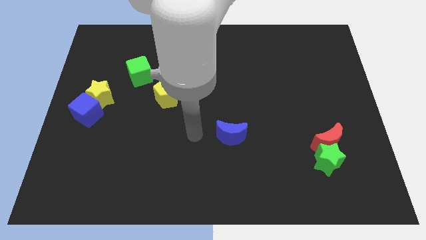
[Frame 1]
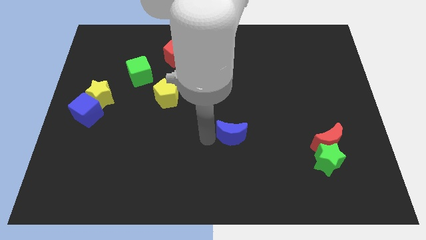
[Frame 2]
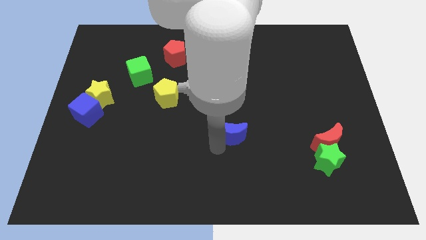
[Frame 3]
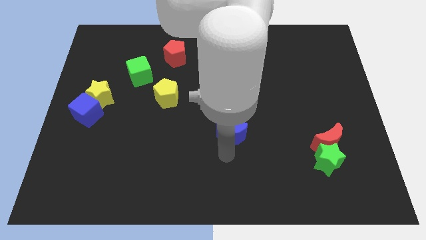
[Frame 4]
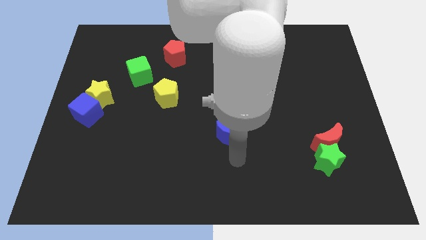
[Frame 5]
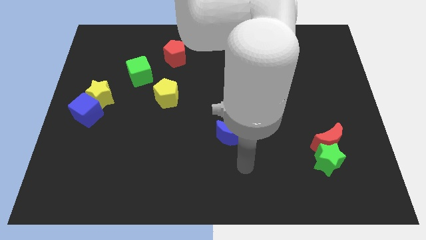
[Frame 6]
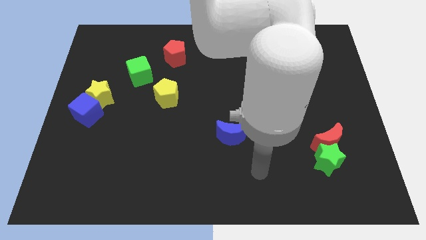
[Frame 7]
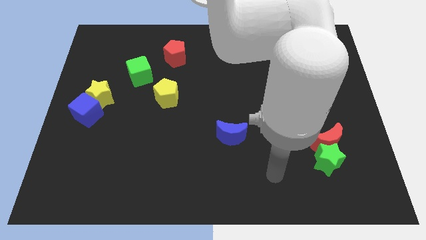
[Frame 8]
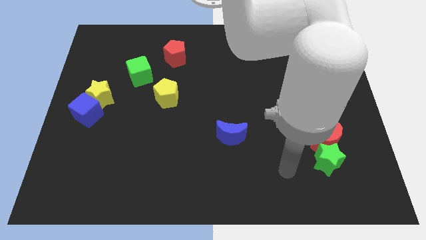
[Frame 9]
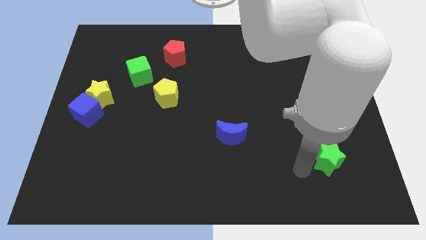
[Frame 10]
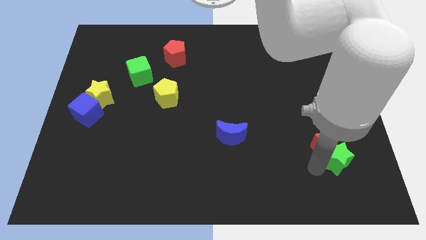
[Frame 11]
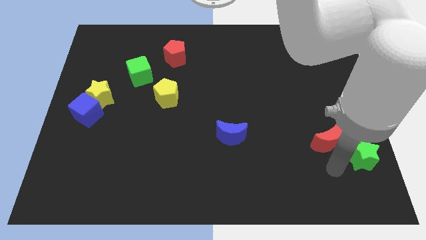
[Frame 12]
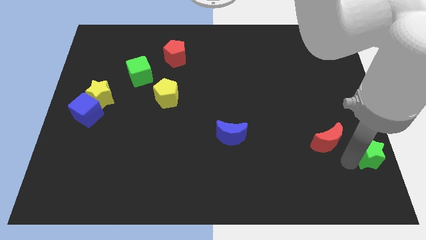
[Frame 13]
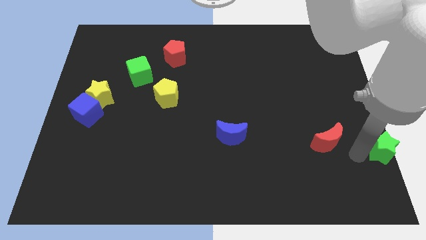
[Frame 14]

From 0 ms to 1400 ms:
move the red moon away from the green star

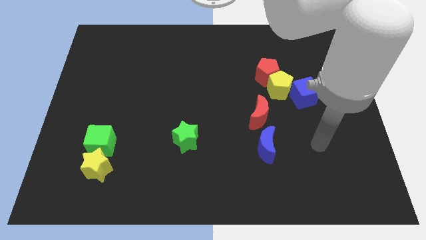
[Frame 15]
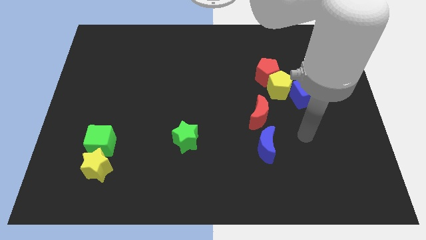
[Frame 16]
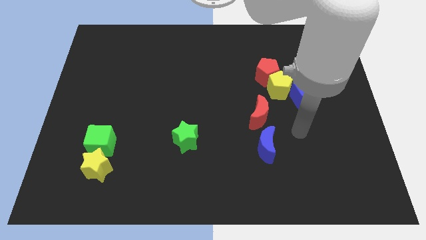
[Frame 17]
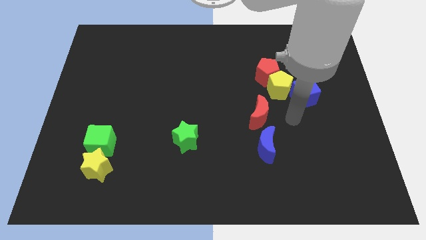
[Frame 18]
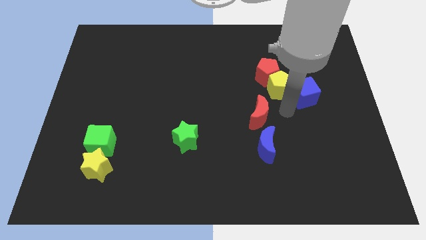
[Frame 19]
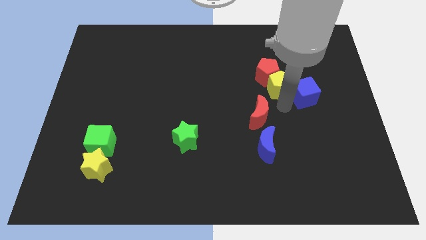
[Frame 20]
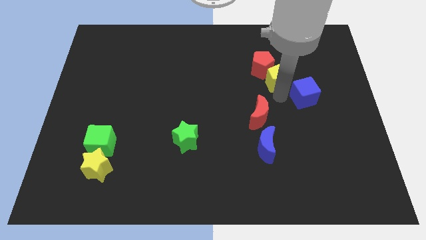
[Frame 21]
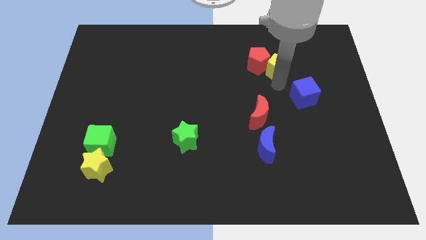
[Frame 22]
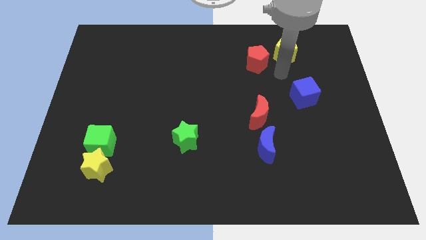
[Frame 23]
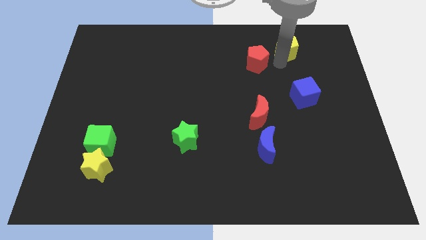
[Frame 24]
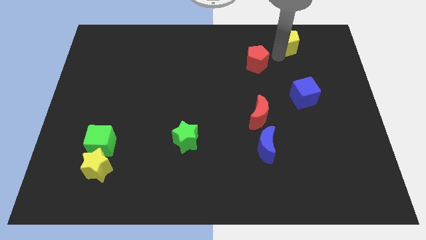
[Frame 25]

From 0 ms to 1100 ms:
pull the red pentagon apart from the yellow pentagon

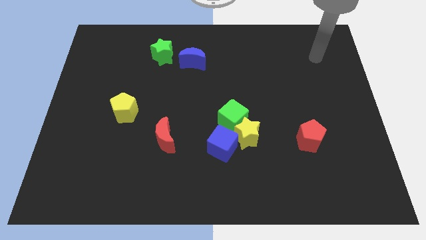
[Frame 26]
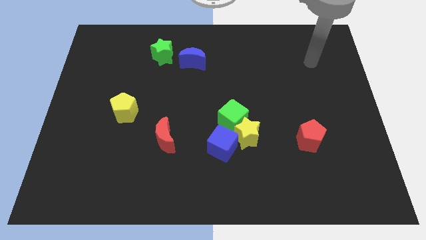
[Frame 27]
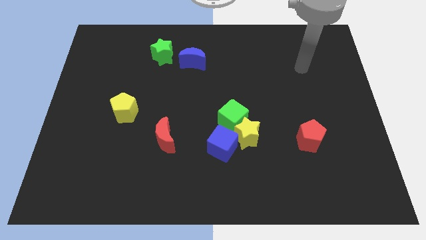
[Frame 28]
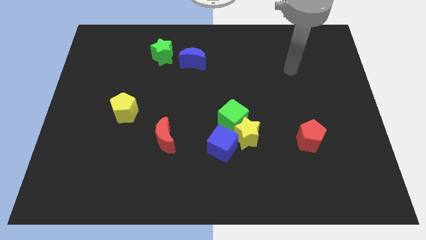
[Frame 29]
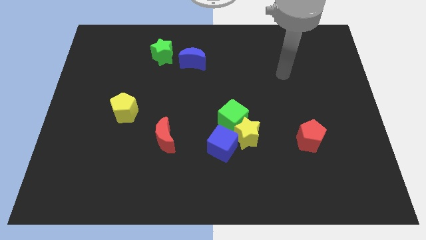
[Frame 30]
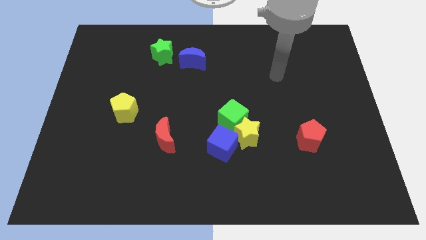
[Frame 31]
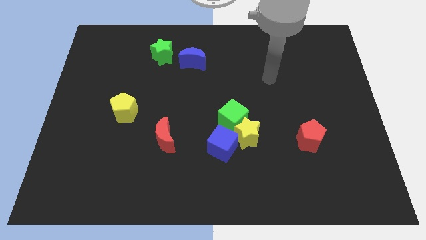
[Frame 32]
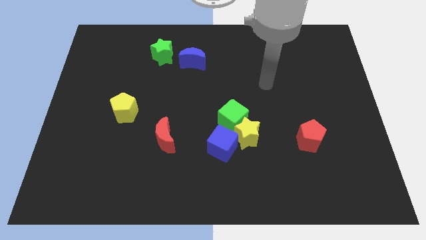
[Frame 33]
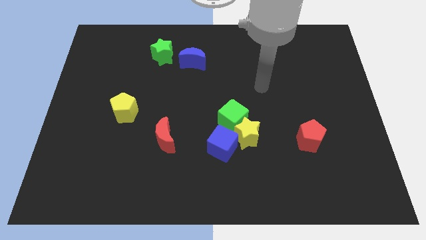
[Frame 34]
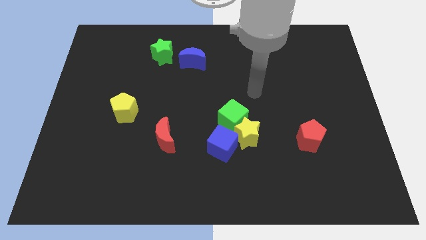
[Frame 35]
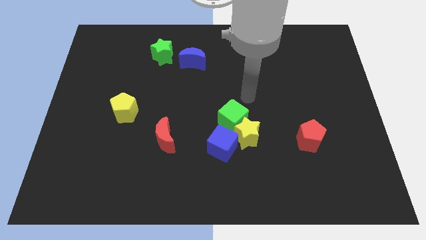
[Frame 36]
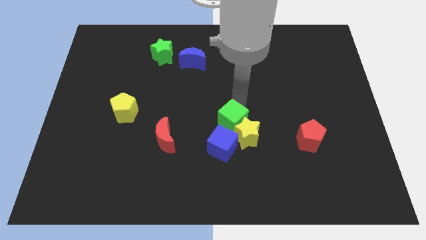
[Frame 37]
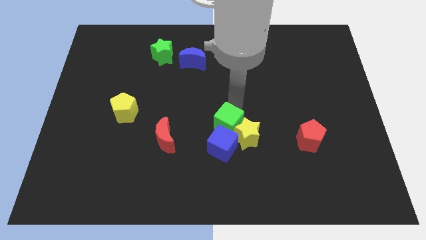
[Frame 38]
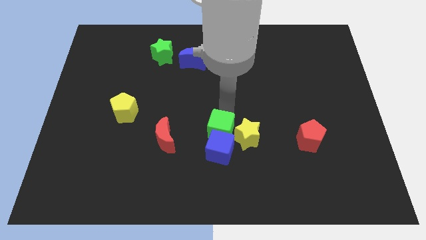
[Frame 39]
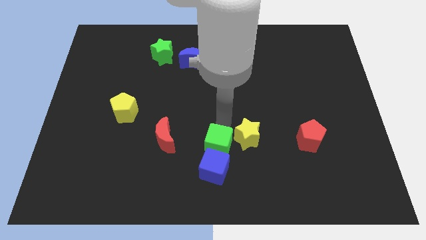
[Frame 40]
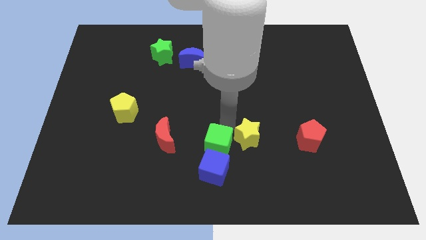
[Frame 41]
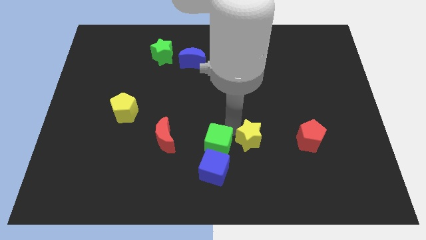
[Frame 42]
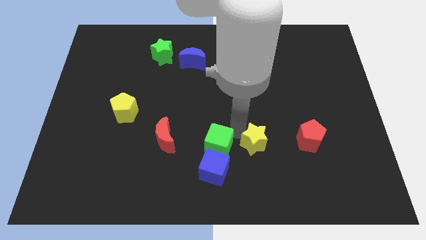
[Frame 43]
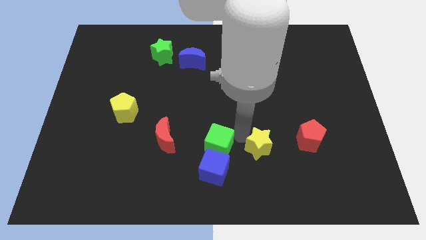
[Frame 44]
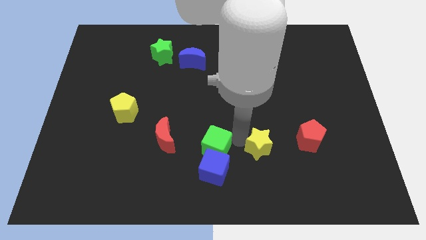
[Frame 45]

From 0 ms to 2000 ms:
move the yellow star away from the green cube and blue cube

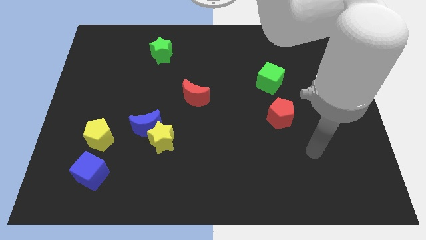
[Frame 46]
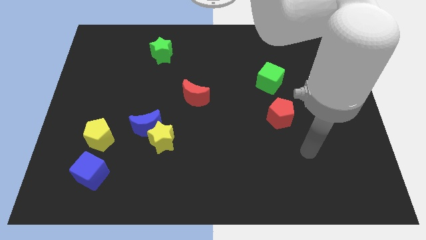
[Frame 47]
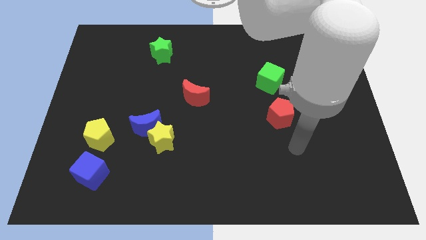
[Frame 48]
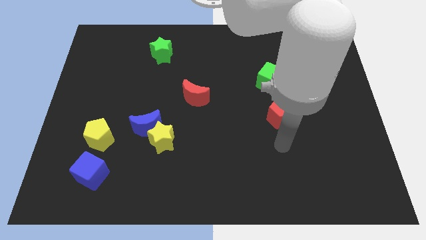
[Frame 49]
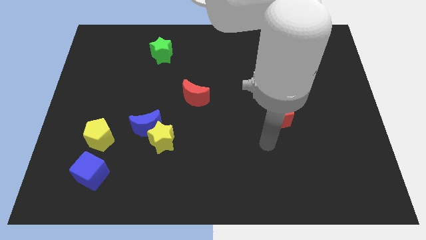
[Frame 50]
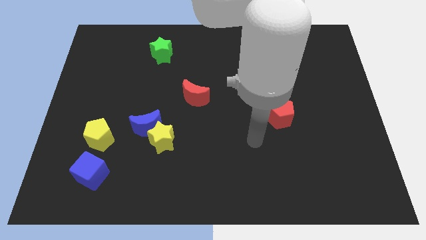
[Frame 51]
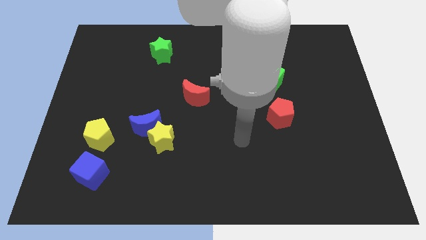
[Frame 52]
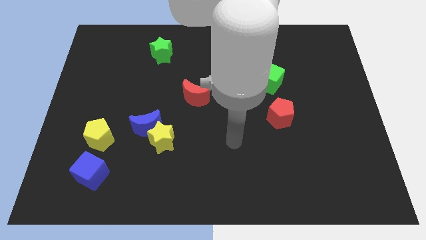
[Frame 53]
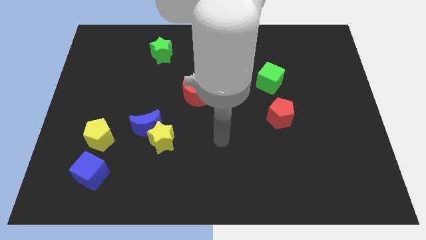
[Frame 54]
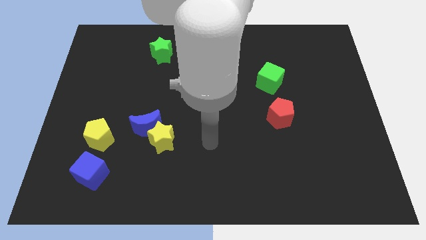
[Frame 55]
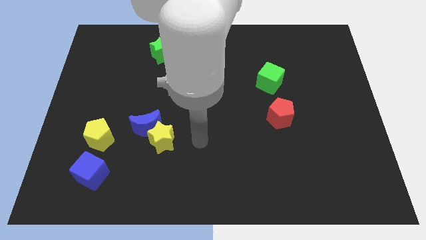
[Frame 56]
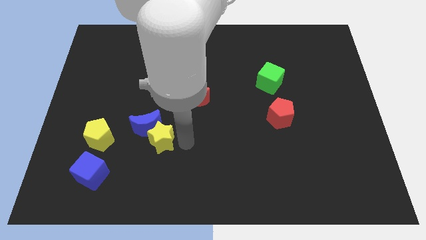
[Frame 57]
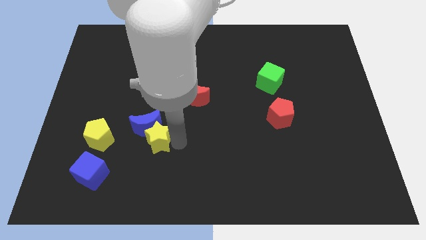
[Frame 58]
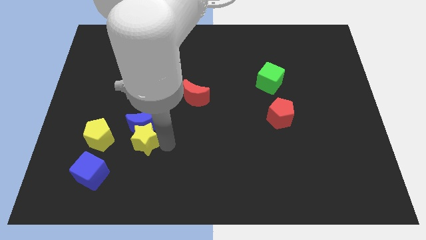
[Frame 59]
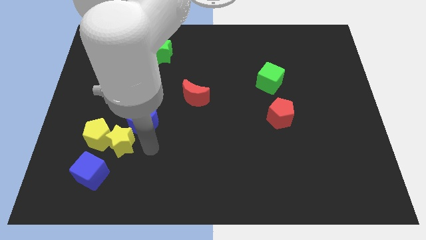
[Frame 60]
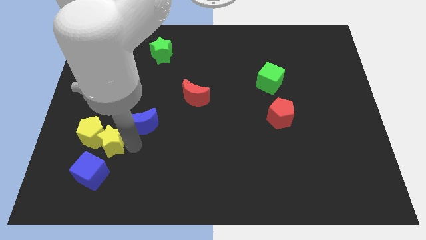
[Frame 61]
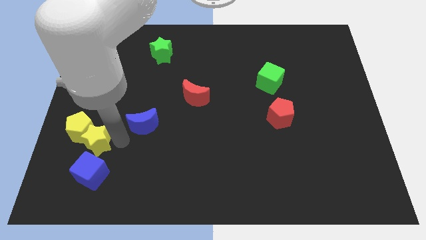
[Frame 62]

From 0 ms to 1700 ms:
pull the blue moon apart from the yellow star

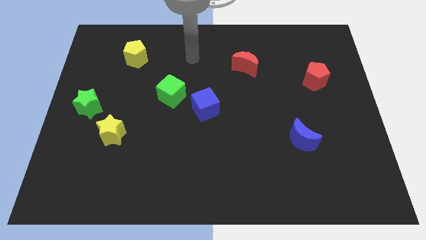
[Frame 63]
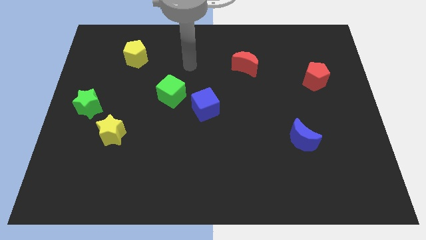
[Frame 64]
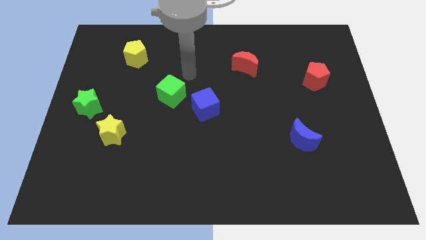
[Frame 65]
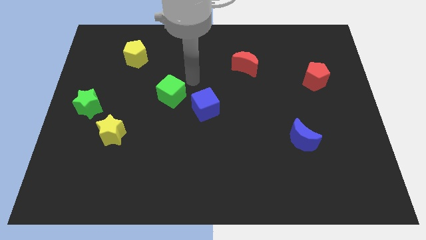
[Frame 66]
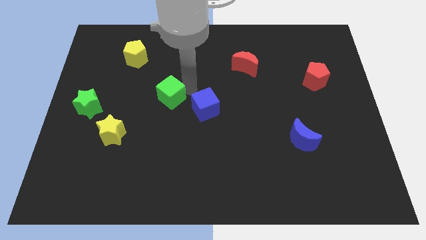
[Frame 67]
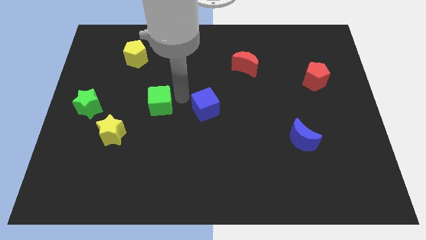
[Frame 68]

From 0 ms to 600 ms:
separate the blue cube from the green cube

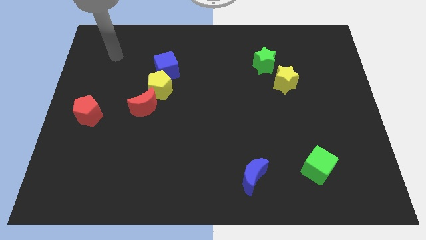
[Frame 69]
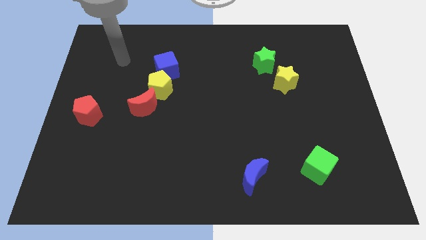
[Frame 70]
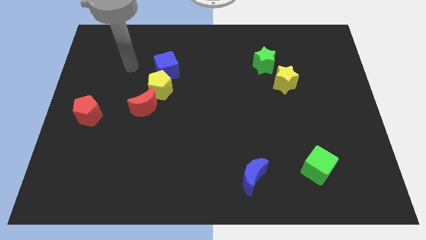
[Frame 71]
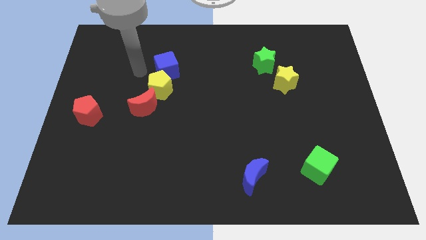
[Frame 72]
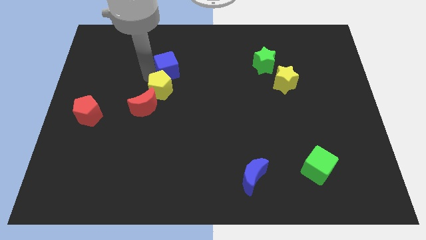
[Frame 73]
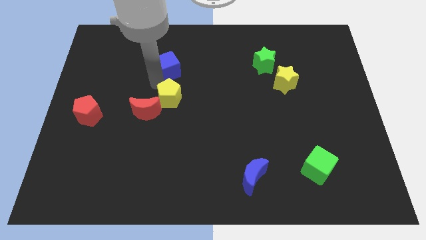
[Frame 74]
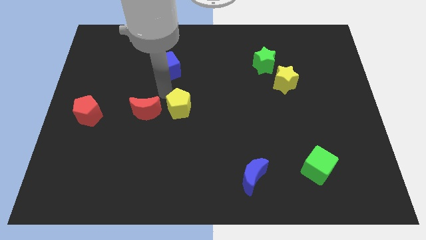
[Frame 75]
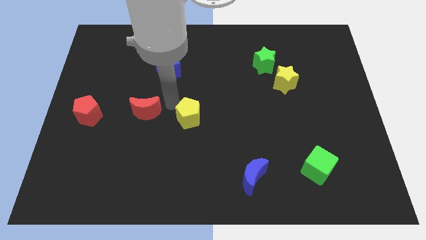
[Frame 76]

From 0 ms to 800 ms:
separate the red moon from the yellow pentagon

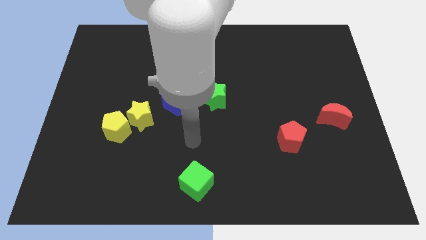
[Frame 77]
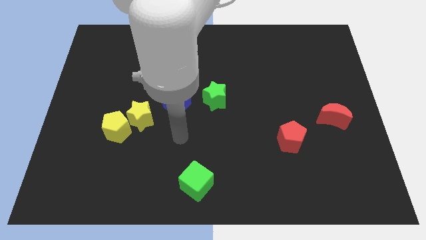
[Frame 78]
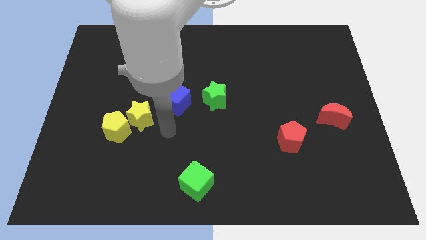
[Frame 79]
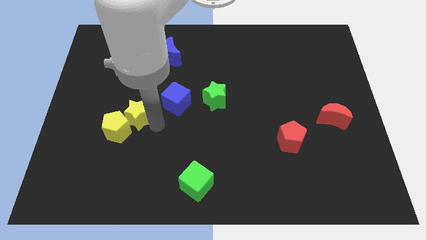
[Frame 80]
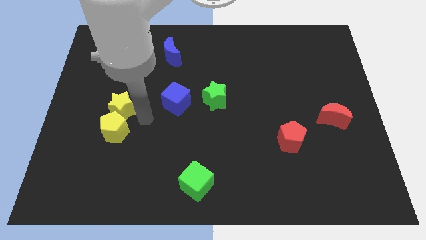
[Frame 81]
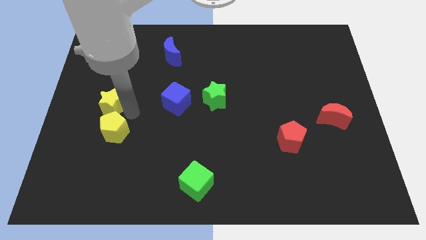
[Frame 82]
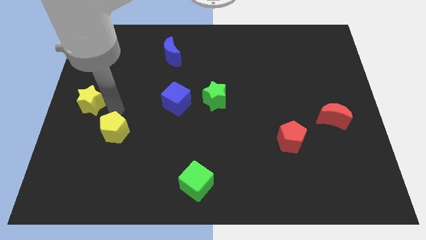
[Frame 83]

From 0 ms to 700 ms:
pull the yellow pentagon apart from the yellow star

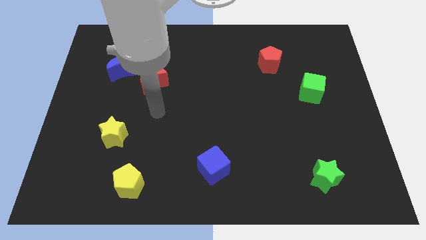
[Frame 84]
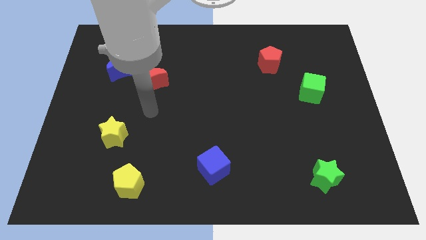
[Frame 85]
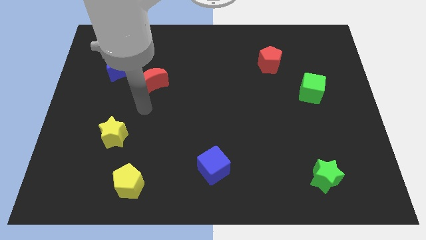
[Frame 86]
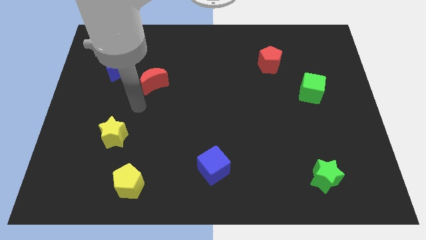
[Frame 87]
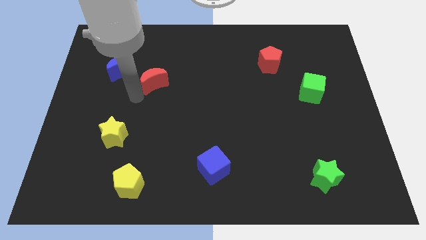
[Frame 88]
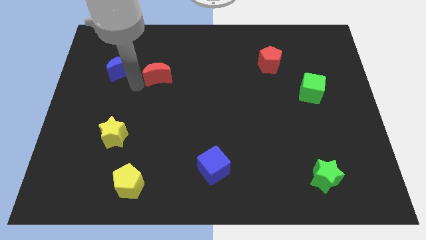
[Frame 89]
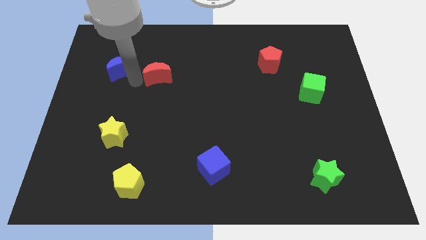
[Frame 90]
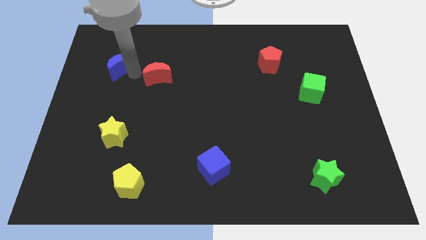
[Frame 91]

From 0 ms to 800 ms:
pull the red moon apart from the blue moon
